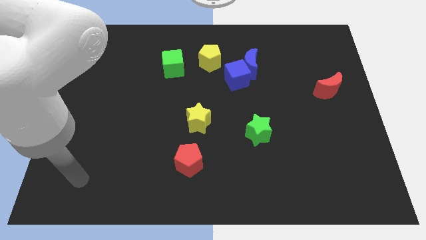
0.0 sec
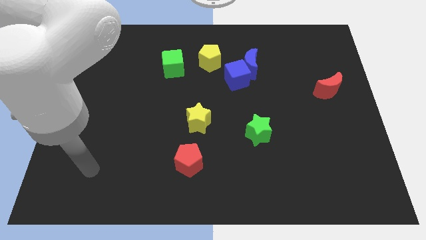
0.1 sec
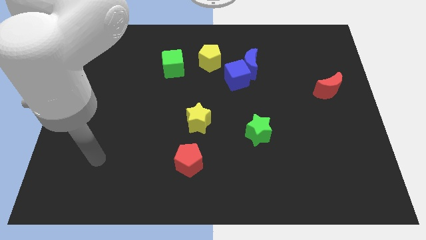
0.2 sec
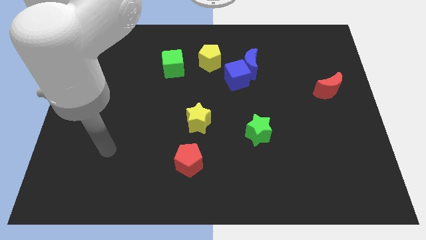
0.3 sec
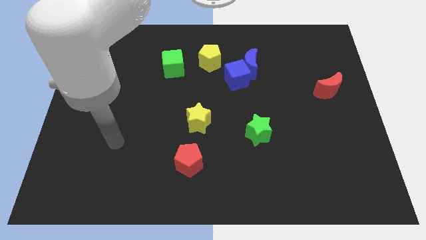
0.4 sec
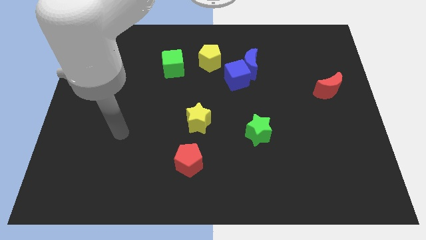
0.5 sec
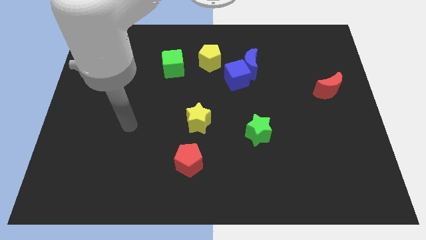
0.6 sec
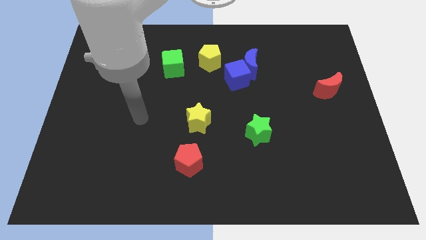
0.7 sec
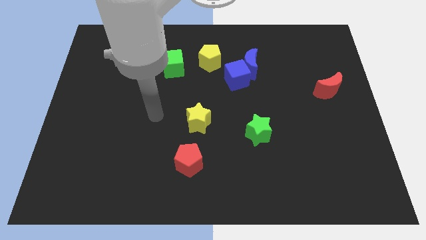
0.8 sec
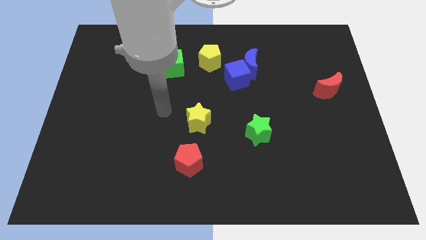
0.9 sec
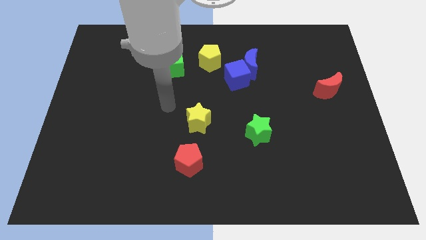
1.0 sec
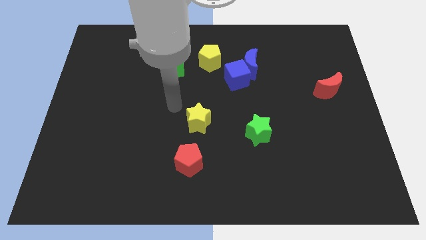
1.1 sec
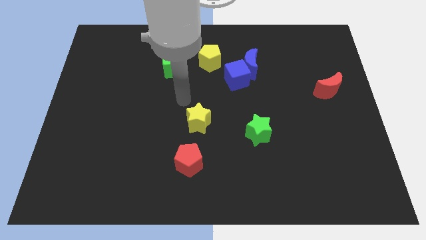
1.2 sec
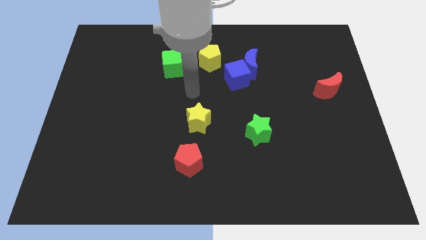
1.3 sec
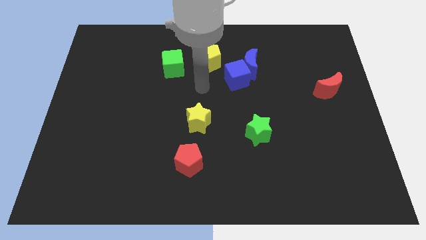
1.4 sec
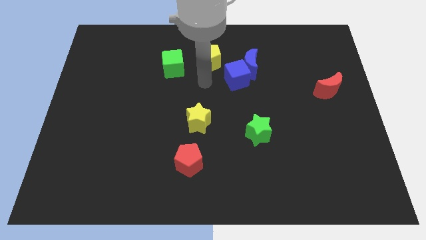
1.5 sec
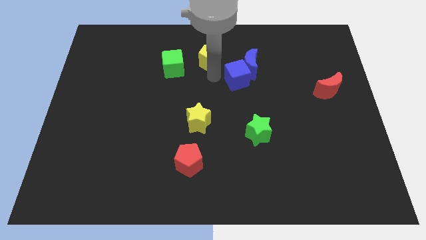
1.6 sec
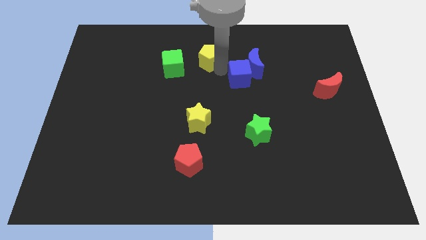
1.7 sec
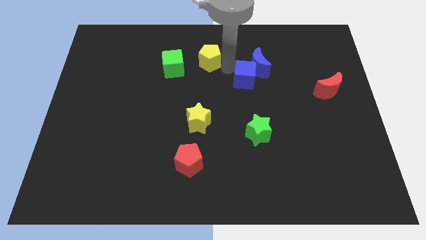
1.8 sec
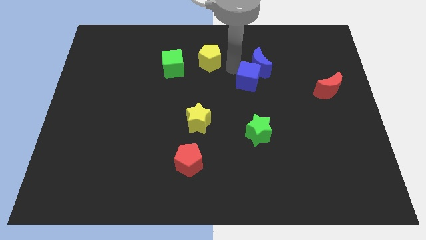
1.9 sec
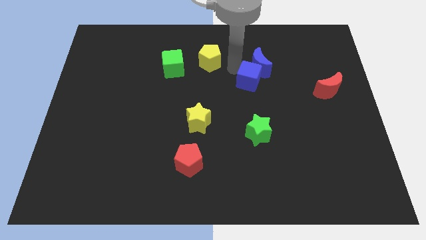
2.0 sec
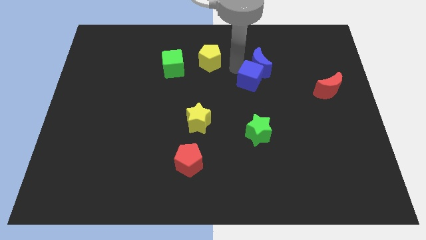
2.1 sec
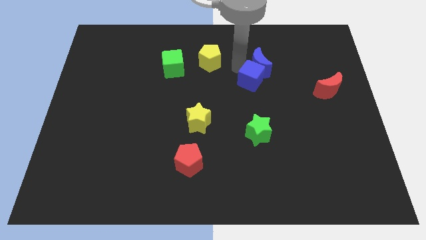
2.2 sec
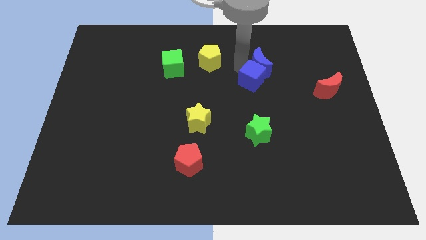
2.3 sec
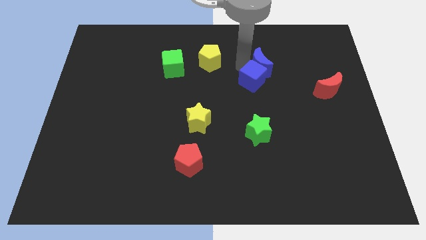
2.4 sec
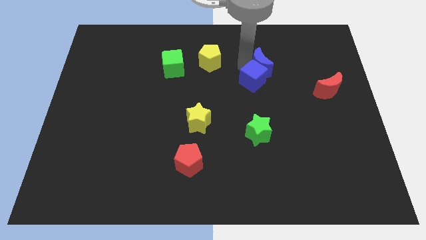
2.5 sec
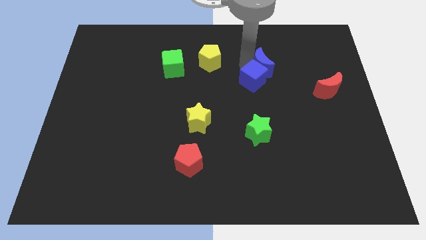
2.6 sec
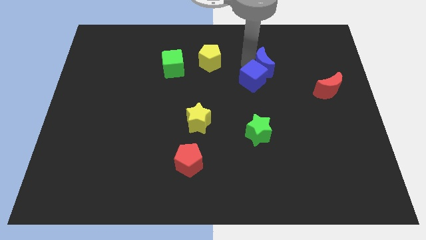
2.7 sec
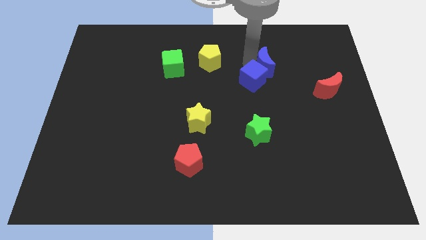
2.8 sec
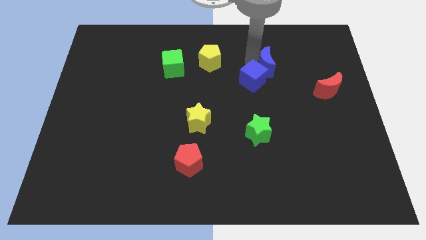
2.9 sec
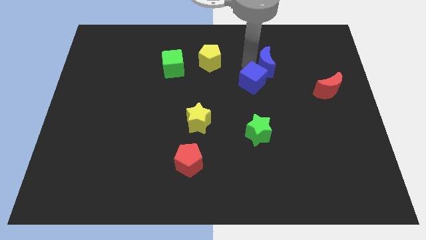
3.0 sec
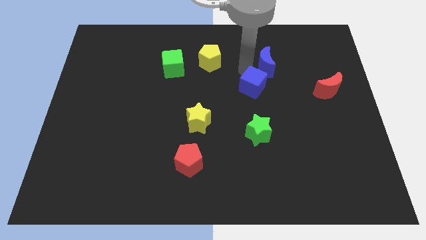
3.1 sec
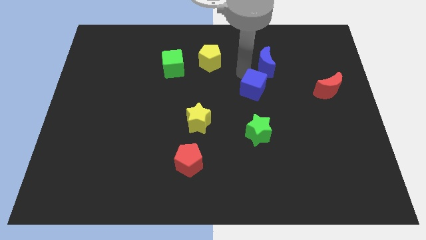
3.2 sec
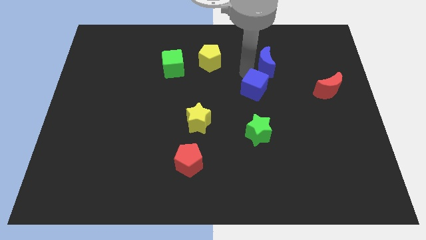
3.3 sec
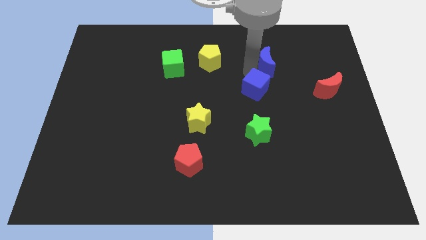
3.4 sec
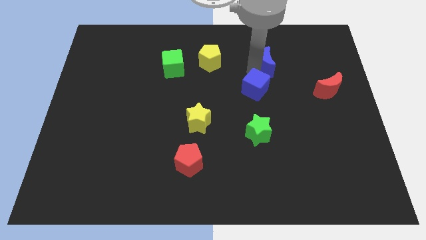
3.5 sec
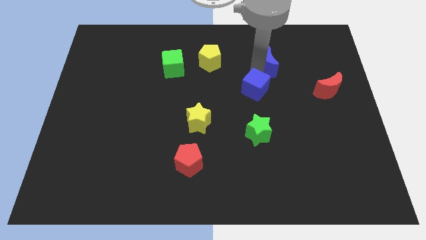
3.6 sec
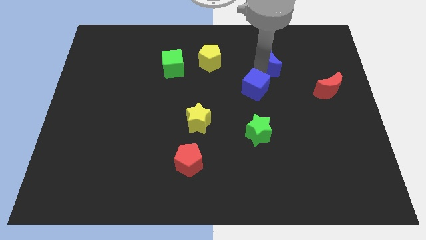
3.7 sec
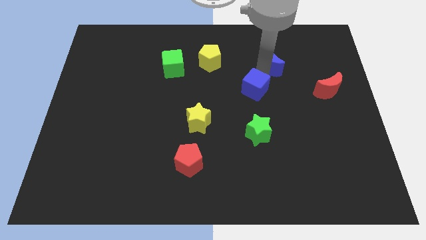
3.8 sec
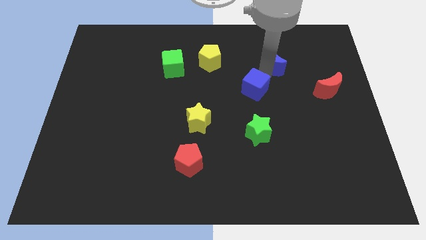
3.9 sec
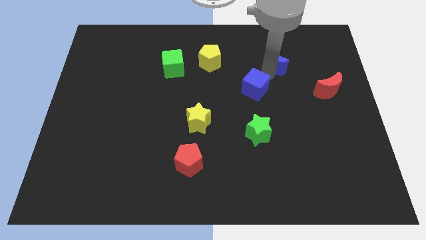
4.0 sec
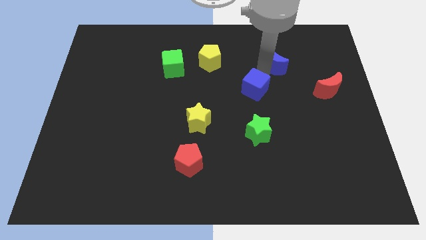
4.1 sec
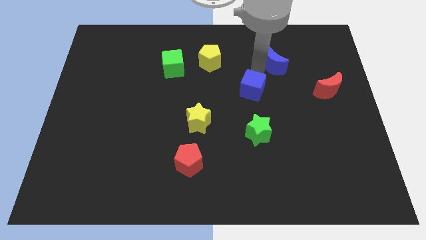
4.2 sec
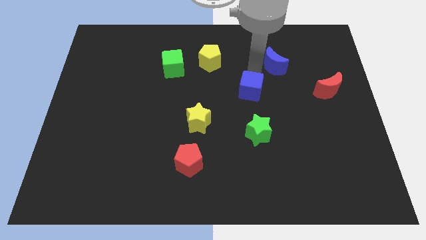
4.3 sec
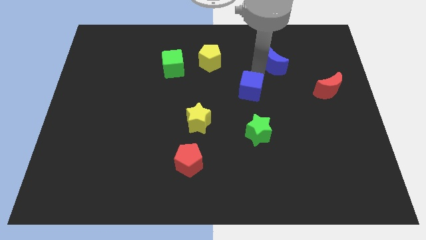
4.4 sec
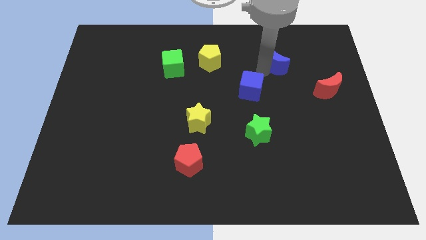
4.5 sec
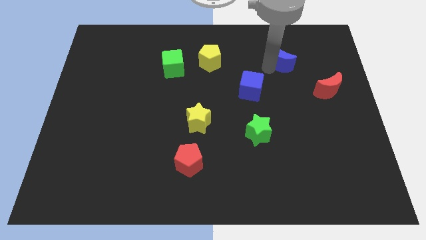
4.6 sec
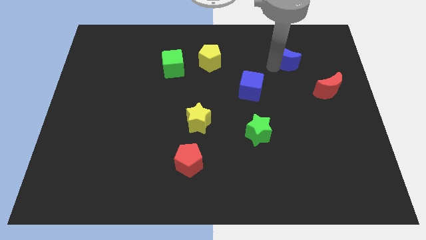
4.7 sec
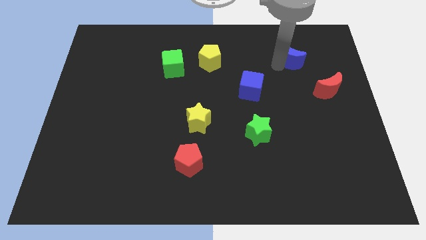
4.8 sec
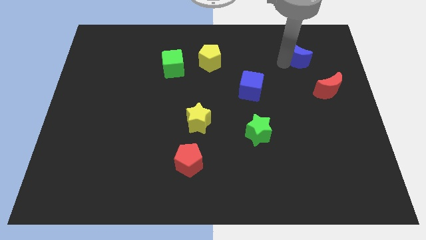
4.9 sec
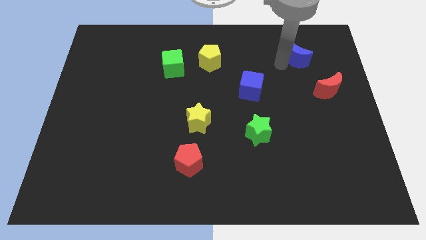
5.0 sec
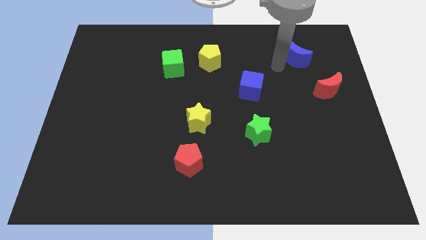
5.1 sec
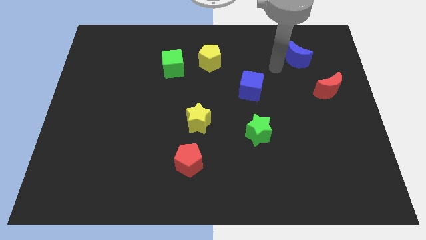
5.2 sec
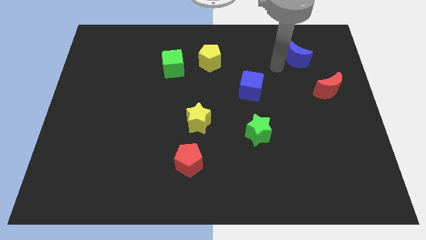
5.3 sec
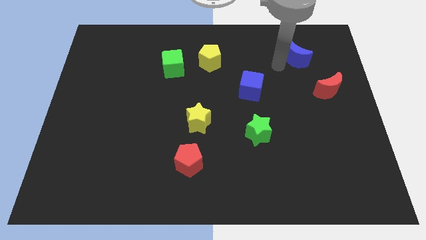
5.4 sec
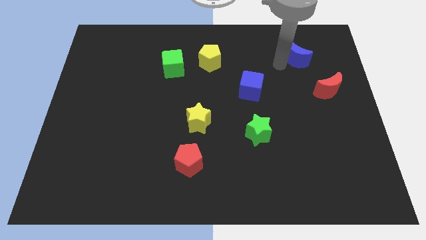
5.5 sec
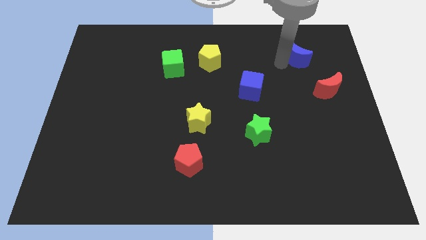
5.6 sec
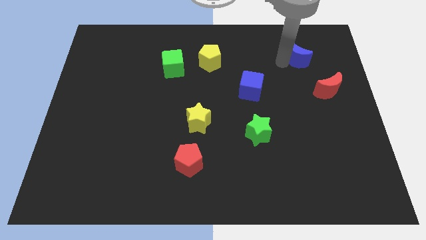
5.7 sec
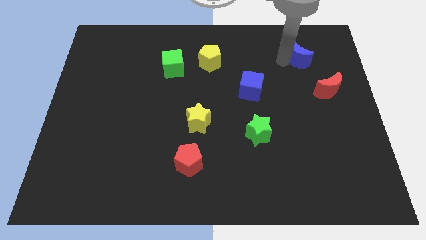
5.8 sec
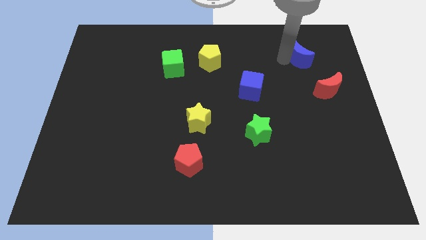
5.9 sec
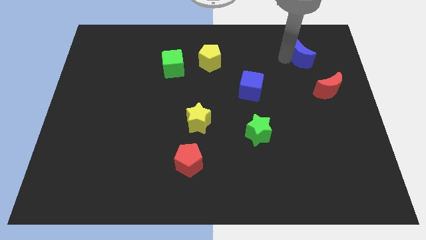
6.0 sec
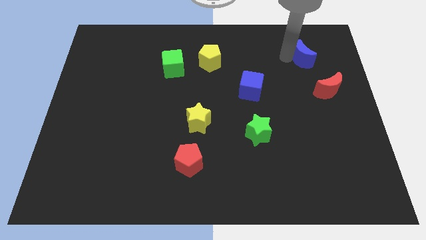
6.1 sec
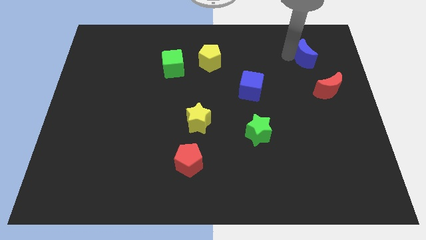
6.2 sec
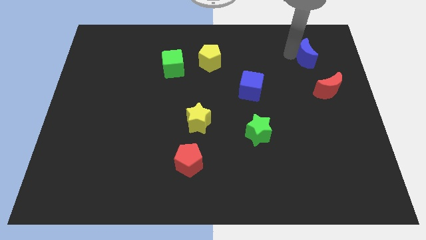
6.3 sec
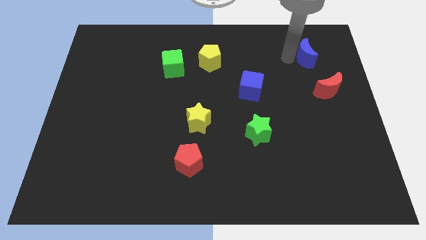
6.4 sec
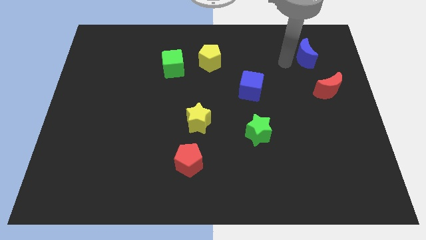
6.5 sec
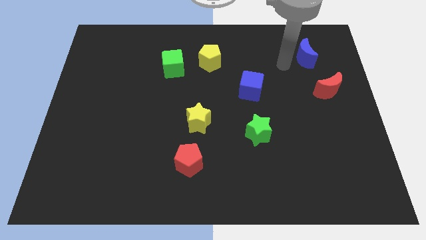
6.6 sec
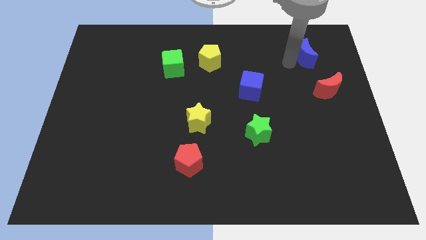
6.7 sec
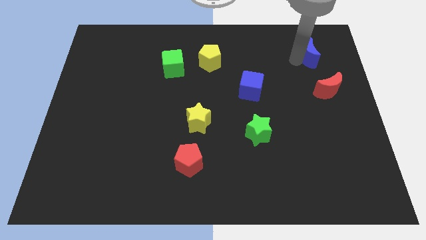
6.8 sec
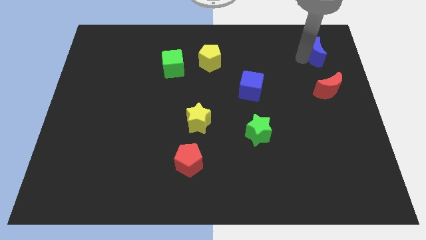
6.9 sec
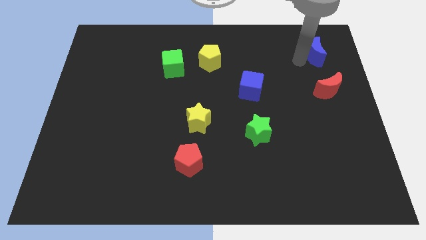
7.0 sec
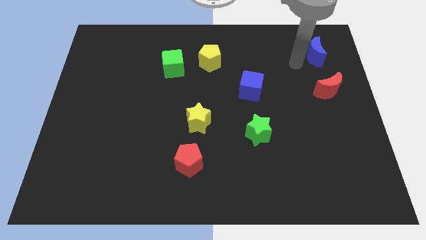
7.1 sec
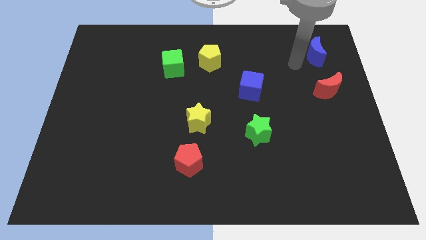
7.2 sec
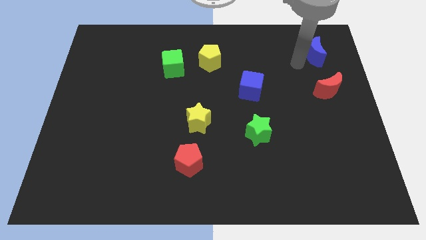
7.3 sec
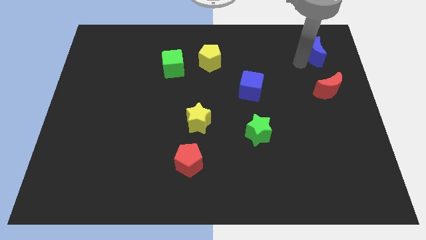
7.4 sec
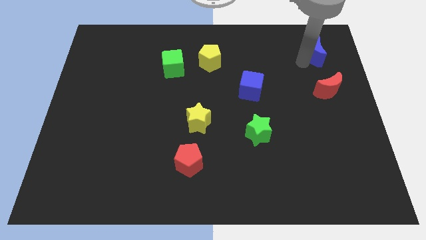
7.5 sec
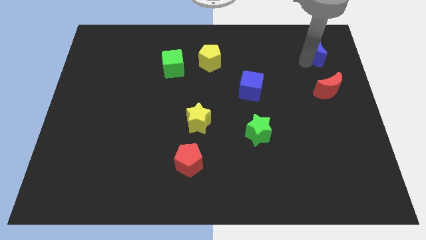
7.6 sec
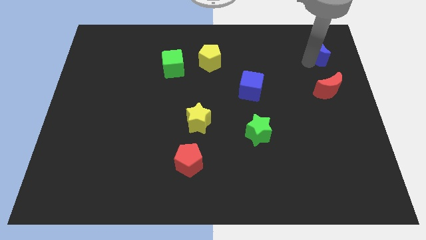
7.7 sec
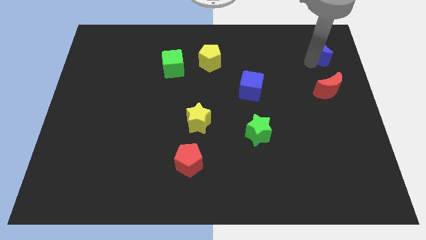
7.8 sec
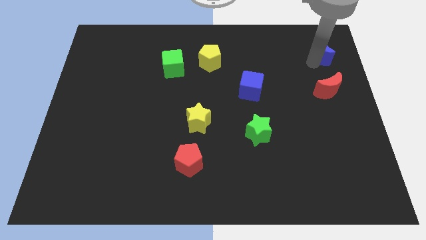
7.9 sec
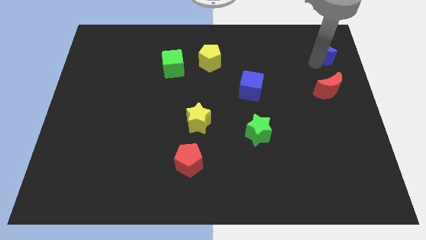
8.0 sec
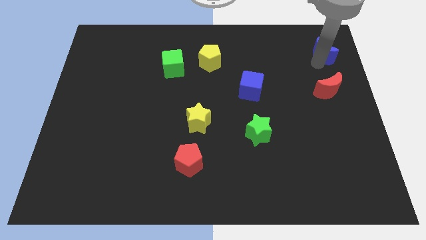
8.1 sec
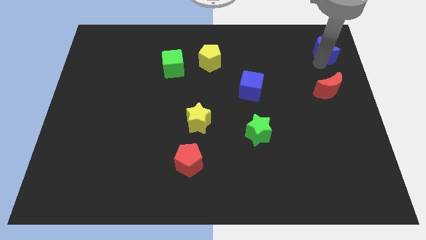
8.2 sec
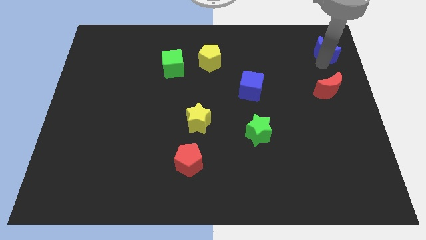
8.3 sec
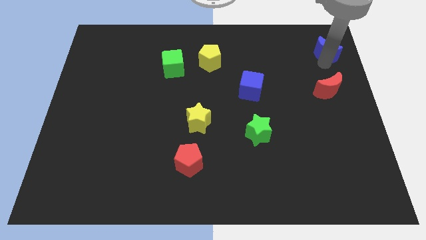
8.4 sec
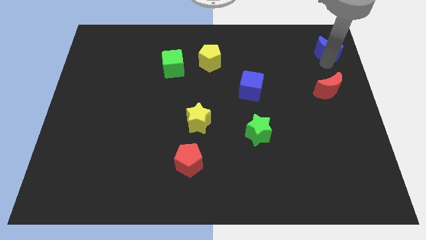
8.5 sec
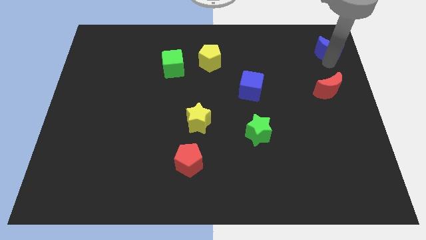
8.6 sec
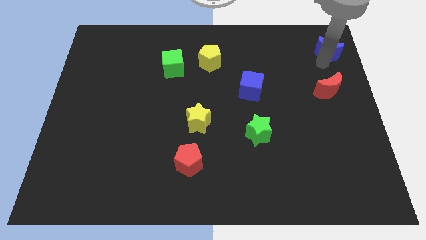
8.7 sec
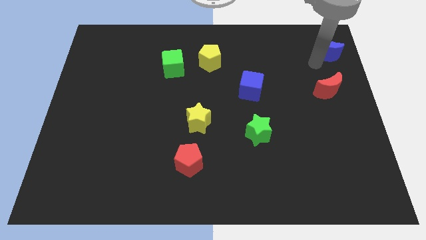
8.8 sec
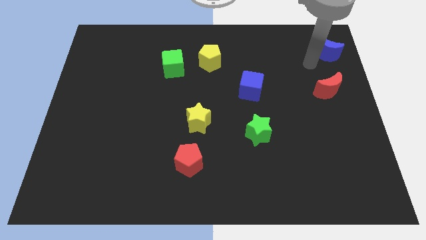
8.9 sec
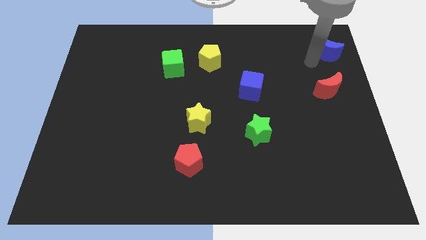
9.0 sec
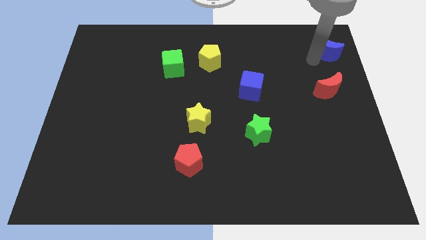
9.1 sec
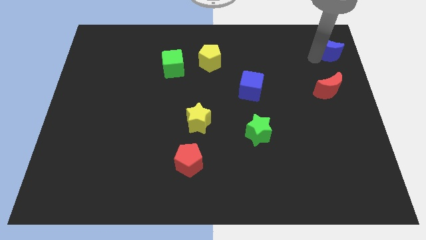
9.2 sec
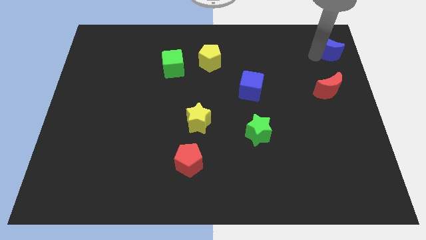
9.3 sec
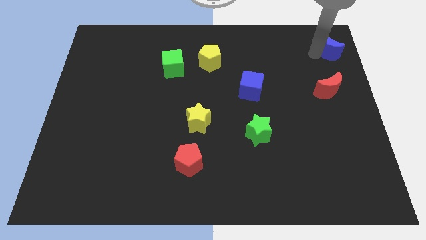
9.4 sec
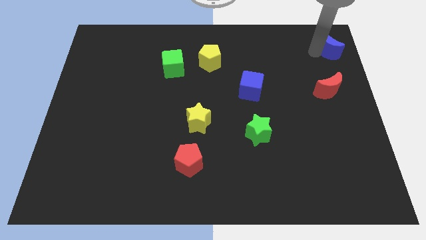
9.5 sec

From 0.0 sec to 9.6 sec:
put the blue moon to the top right of the board
